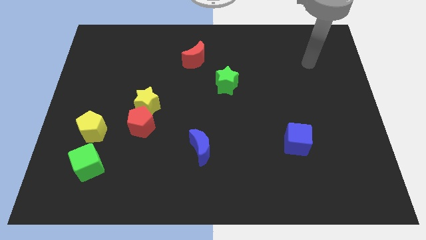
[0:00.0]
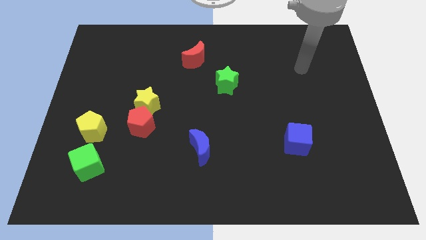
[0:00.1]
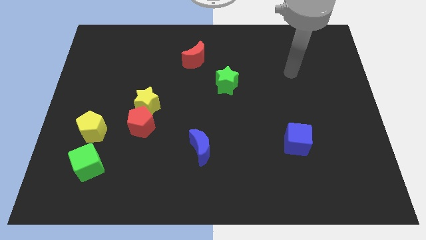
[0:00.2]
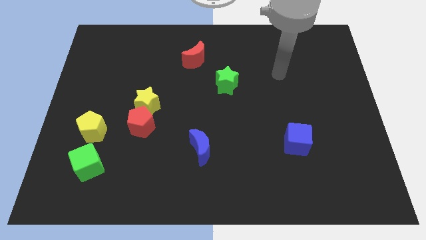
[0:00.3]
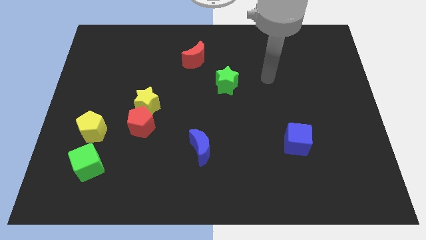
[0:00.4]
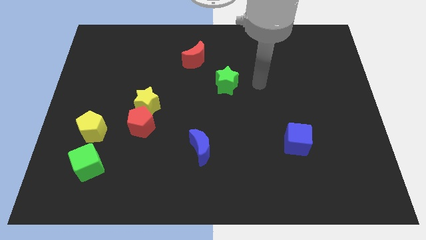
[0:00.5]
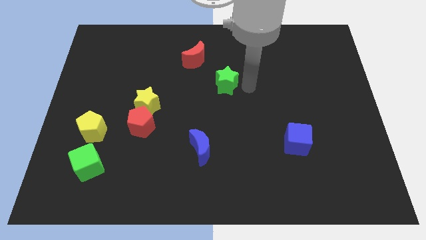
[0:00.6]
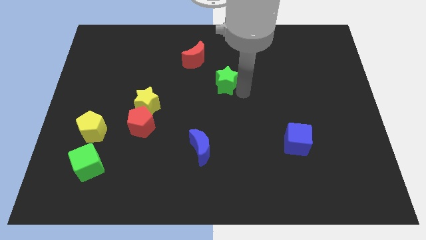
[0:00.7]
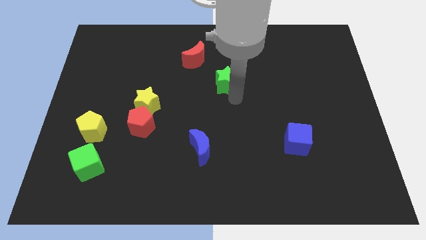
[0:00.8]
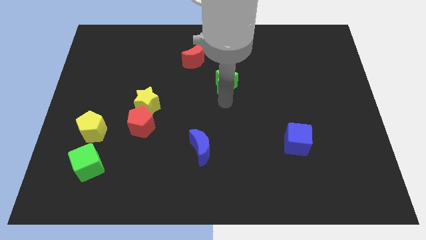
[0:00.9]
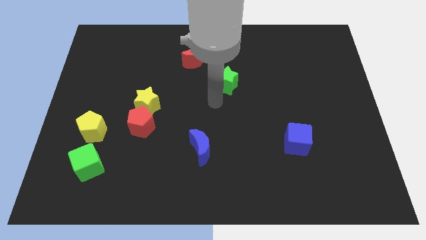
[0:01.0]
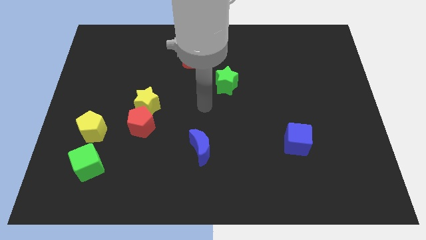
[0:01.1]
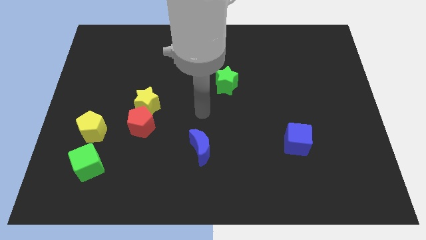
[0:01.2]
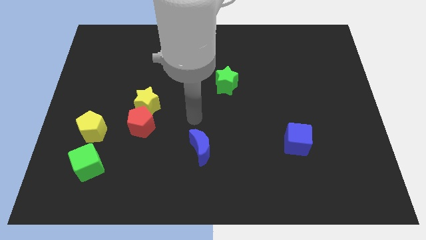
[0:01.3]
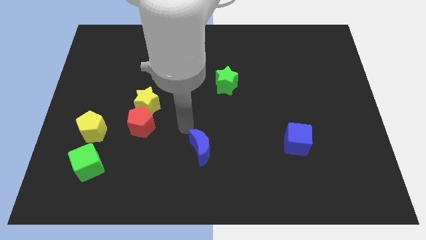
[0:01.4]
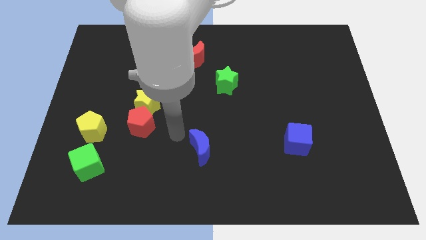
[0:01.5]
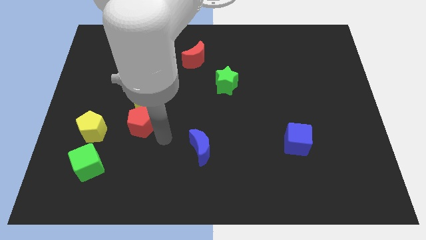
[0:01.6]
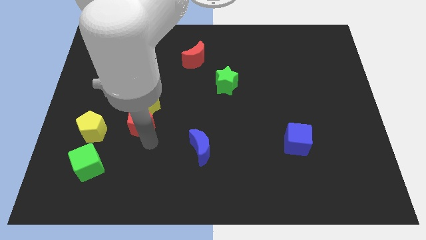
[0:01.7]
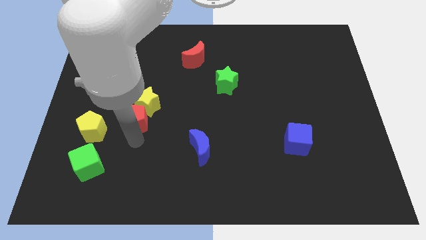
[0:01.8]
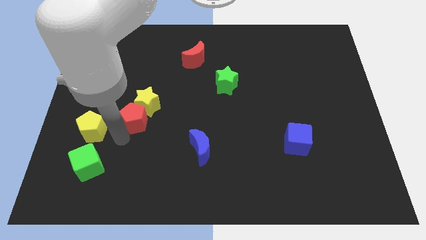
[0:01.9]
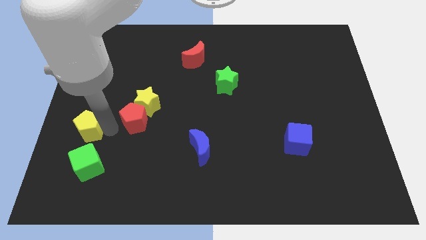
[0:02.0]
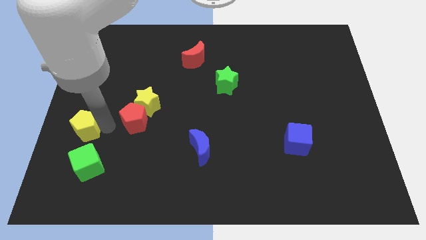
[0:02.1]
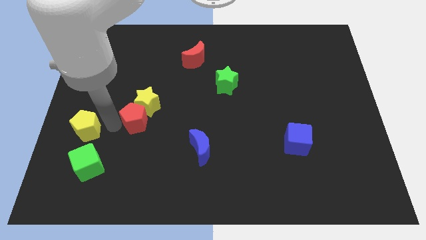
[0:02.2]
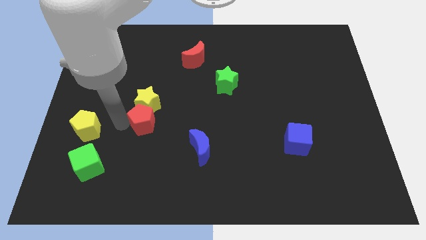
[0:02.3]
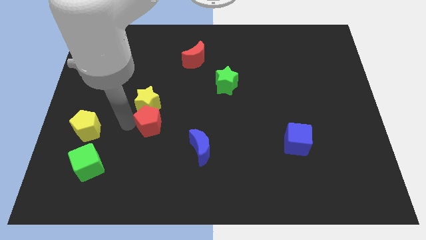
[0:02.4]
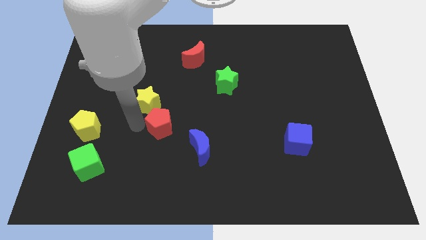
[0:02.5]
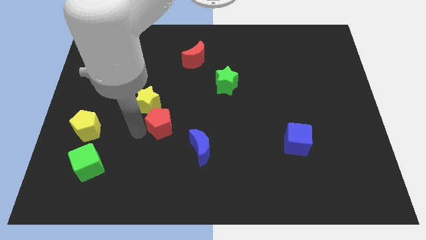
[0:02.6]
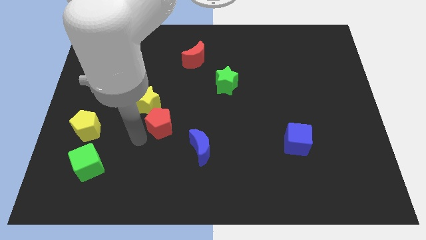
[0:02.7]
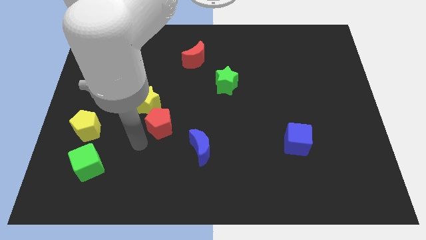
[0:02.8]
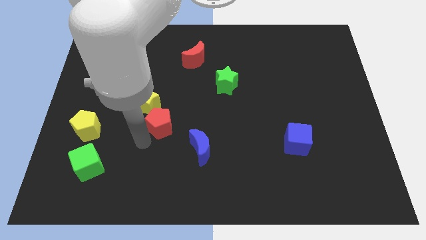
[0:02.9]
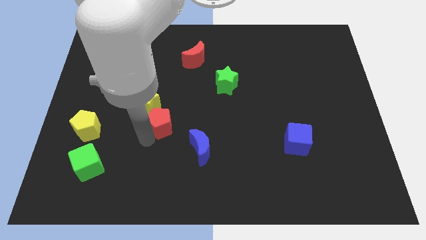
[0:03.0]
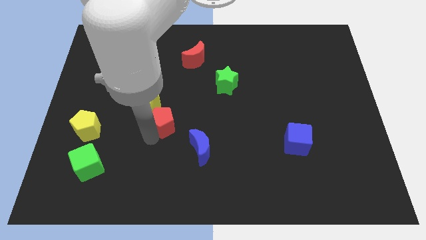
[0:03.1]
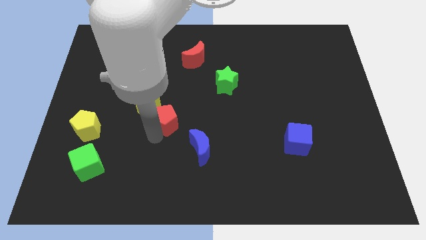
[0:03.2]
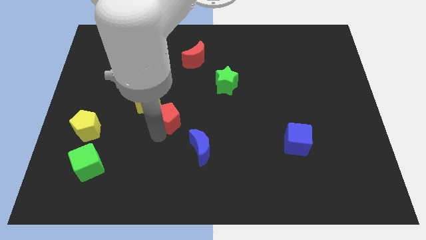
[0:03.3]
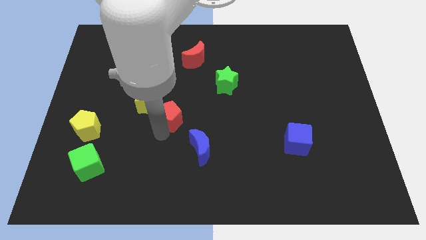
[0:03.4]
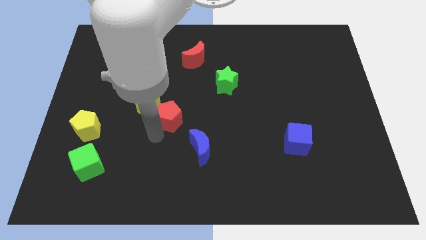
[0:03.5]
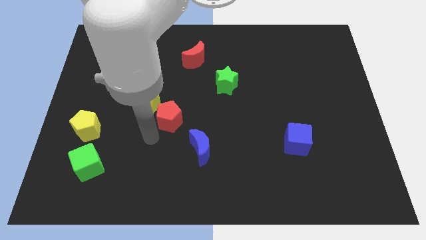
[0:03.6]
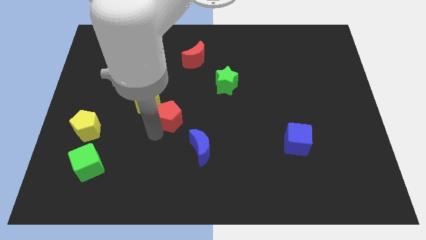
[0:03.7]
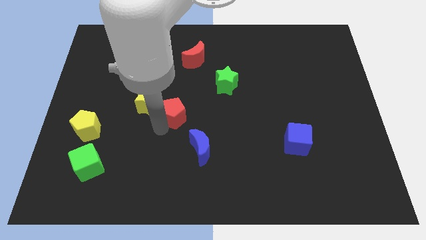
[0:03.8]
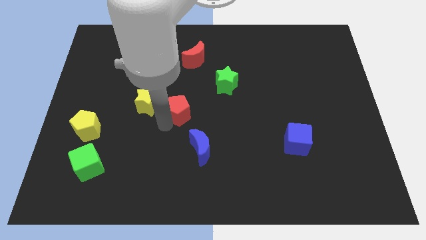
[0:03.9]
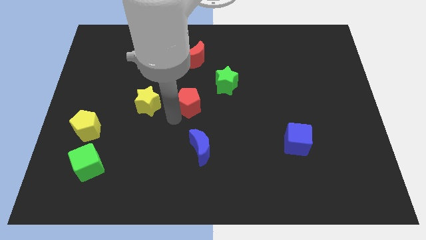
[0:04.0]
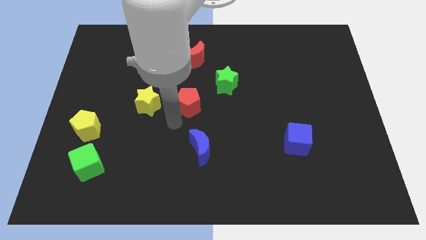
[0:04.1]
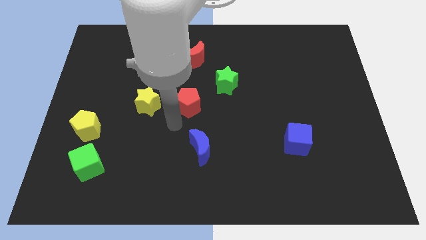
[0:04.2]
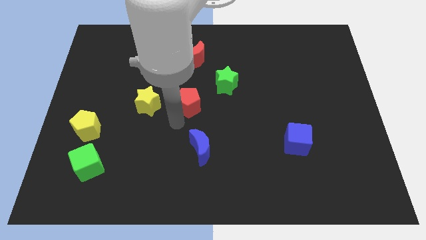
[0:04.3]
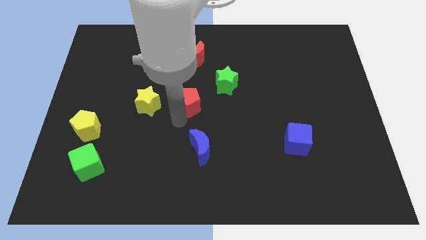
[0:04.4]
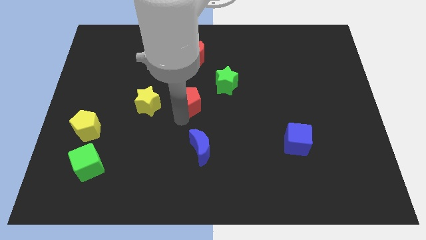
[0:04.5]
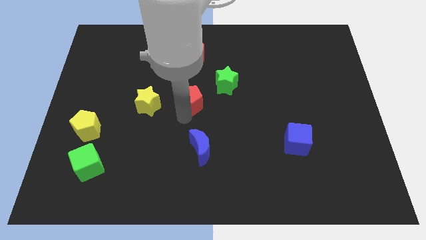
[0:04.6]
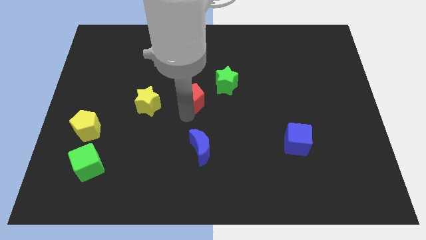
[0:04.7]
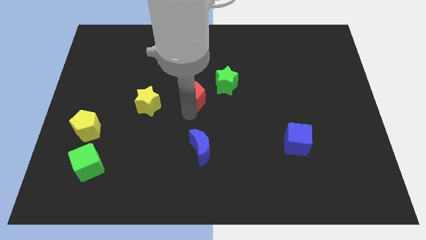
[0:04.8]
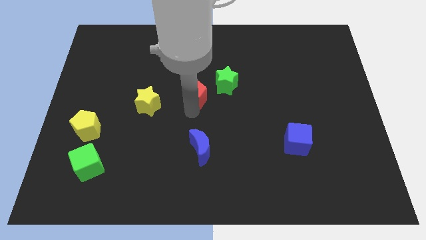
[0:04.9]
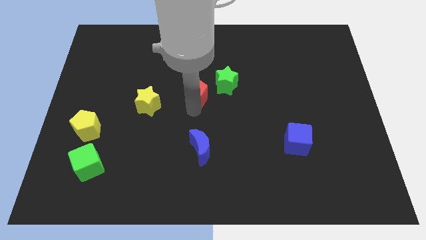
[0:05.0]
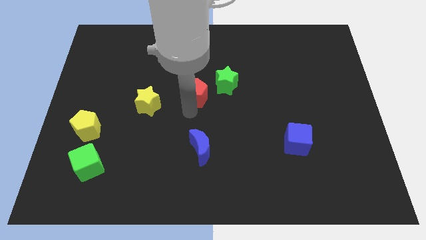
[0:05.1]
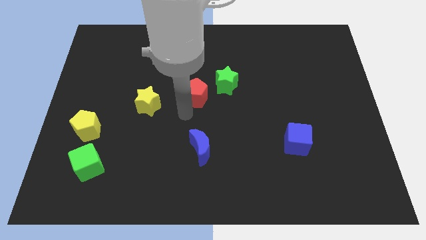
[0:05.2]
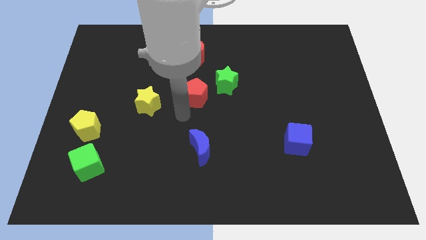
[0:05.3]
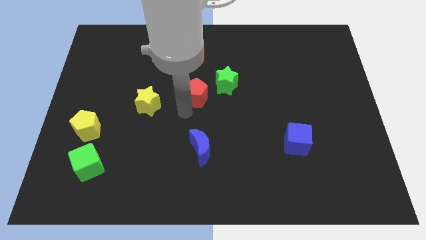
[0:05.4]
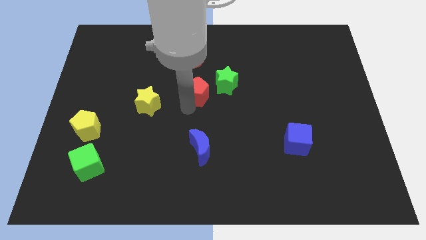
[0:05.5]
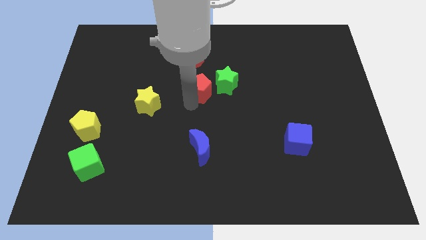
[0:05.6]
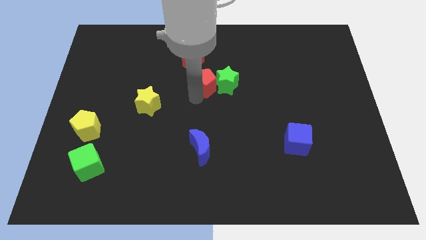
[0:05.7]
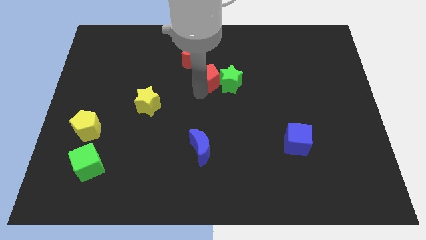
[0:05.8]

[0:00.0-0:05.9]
move the red pentagon upwards and to the right diagonally

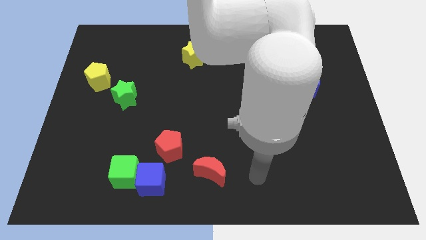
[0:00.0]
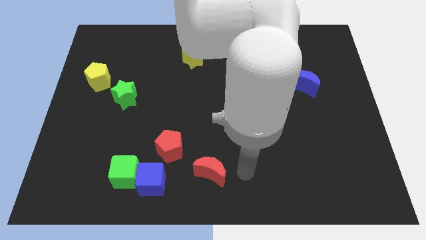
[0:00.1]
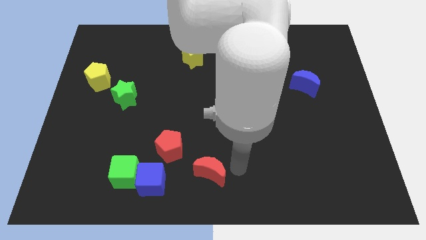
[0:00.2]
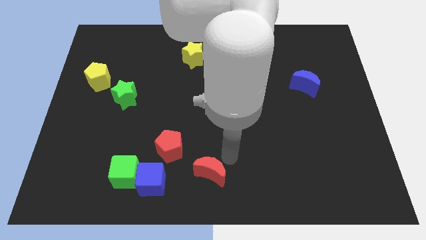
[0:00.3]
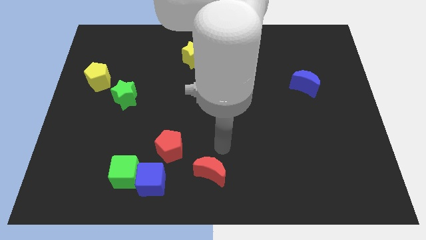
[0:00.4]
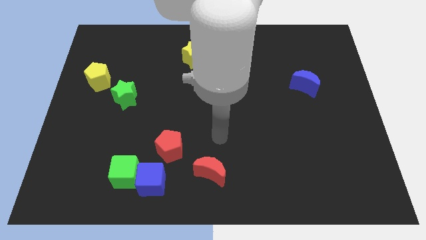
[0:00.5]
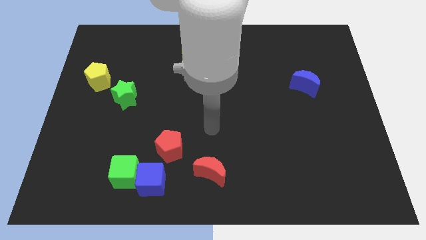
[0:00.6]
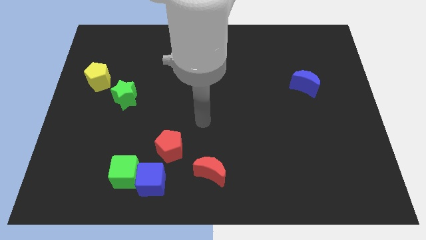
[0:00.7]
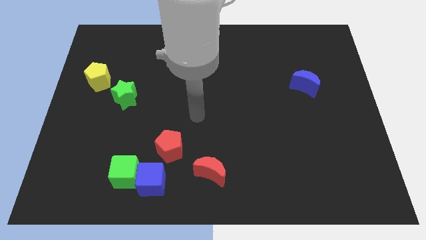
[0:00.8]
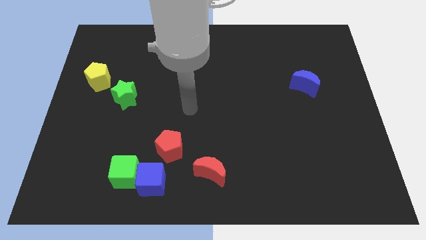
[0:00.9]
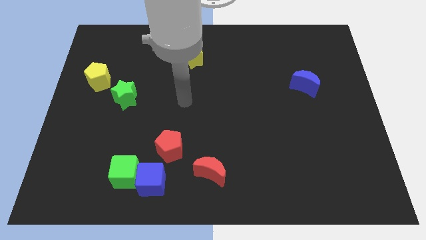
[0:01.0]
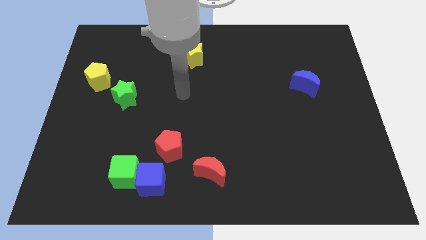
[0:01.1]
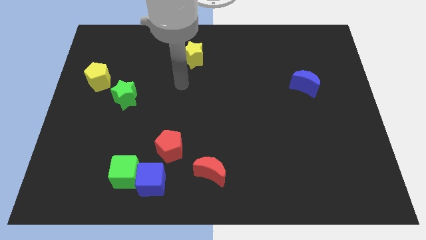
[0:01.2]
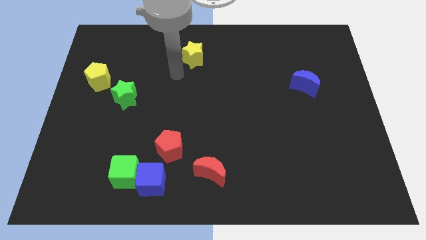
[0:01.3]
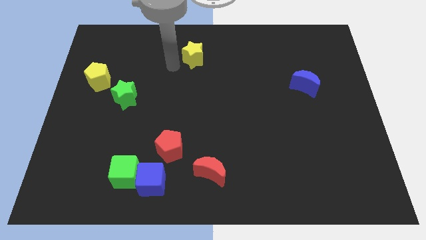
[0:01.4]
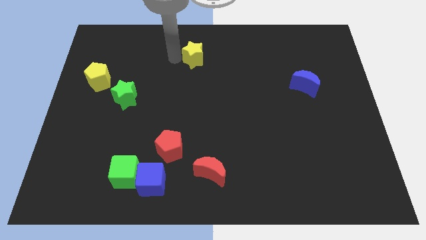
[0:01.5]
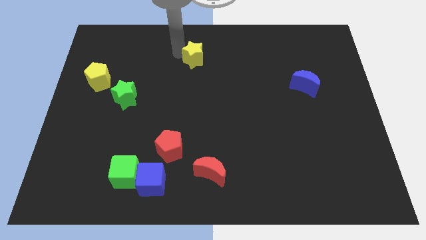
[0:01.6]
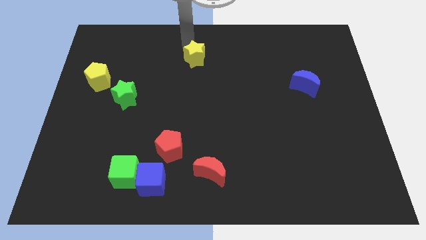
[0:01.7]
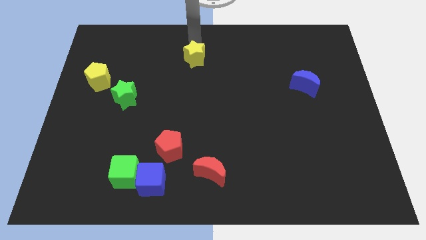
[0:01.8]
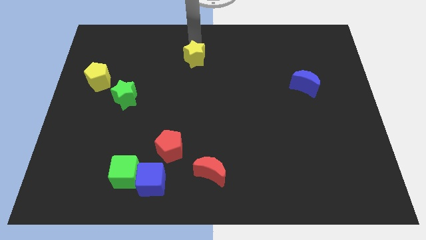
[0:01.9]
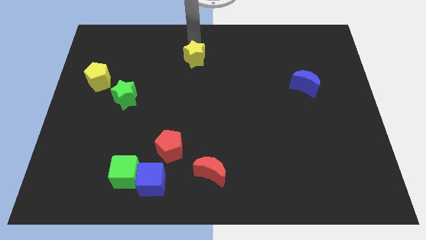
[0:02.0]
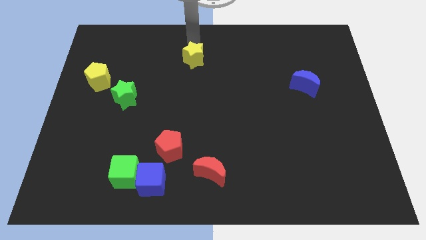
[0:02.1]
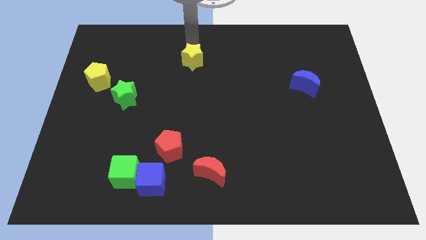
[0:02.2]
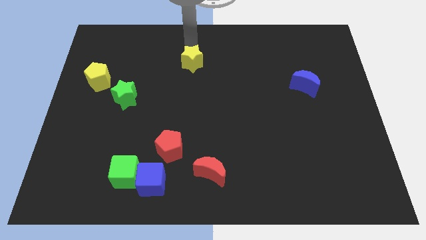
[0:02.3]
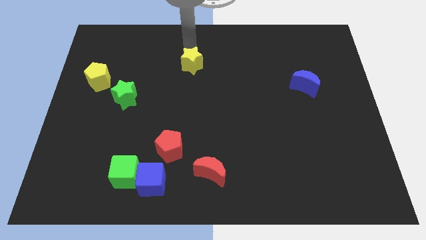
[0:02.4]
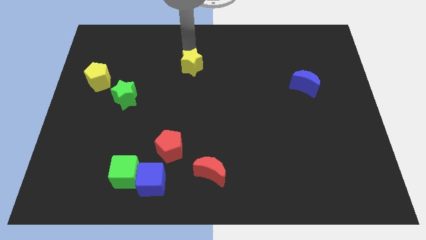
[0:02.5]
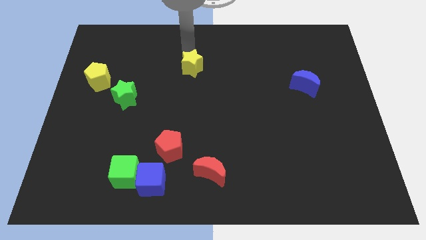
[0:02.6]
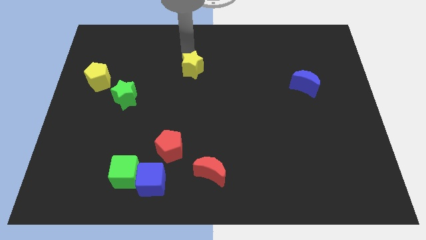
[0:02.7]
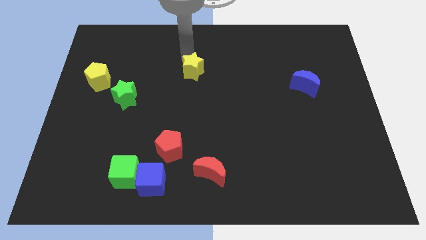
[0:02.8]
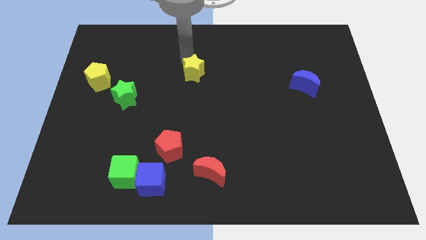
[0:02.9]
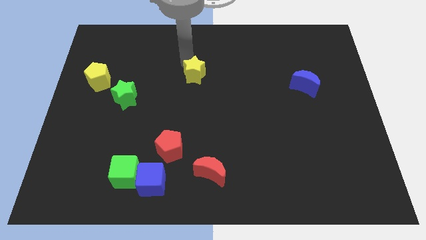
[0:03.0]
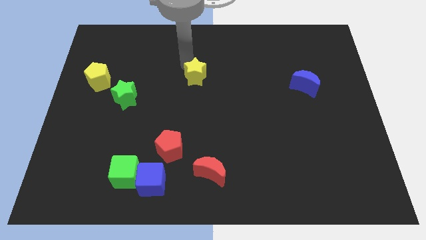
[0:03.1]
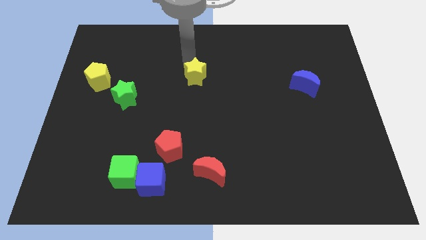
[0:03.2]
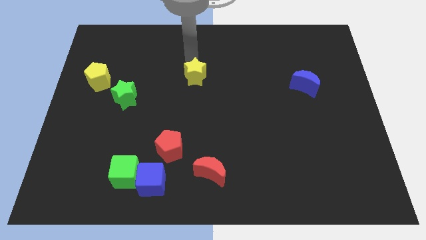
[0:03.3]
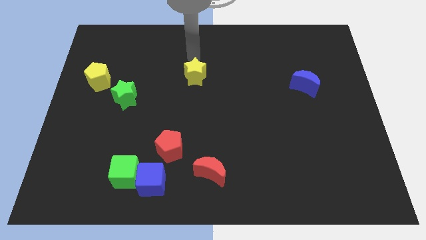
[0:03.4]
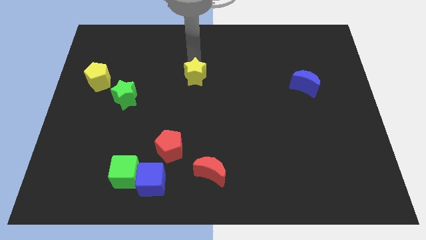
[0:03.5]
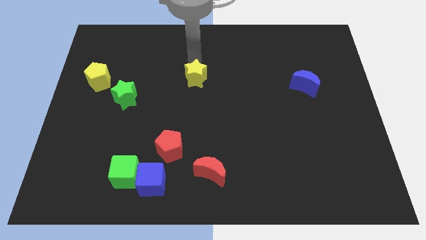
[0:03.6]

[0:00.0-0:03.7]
slightly slide the yellow star down
